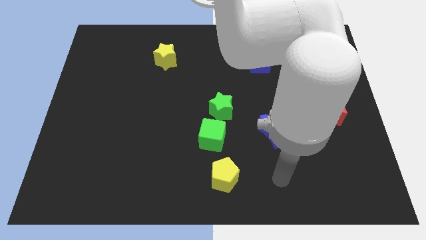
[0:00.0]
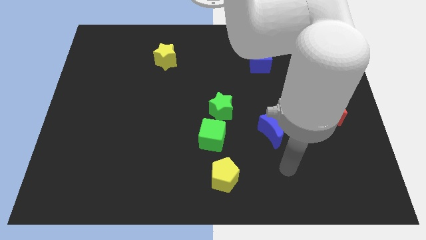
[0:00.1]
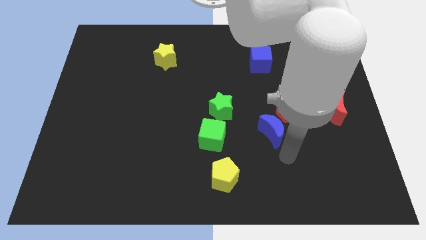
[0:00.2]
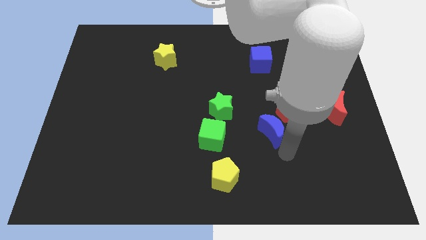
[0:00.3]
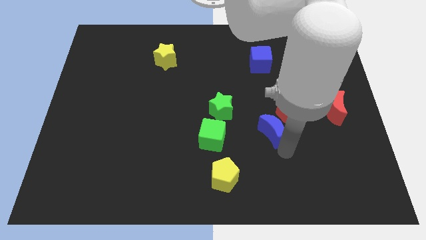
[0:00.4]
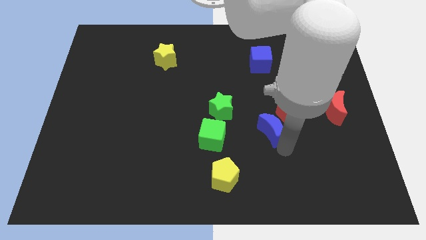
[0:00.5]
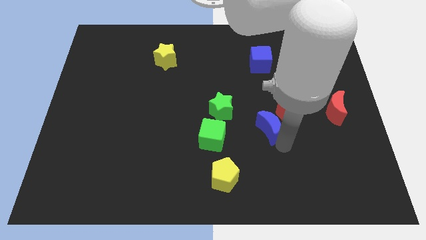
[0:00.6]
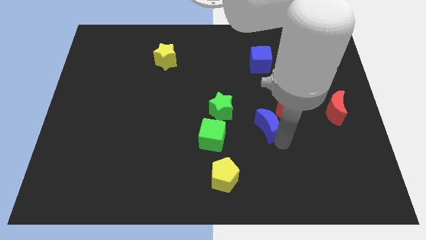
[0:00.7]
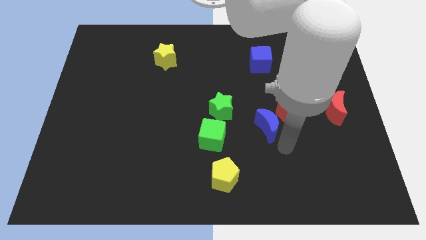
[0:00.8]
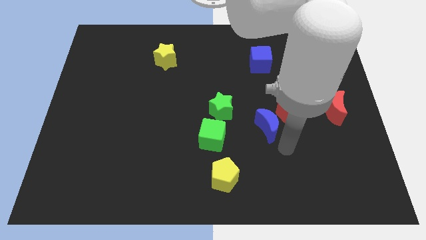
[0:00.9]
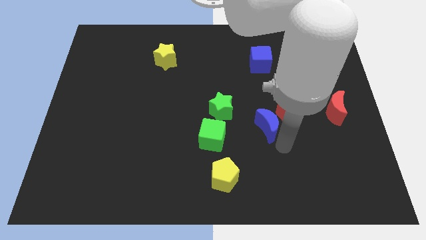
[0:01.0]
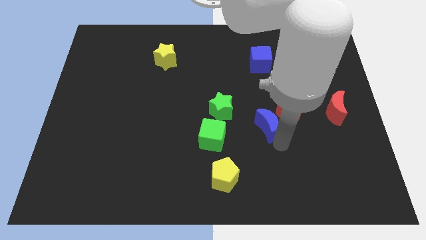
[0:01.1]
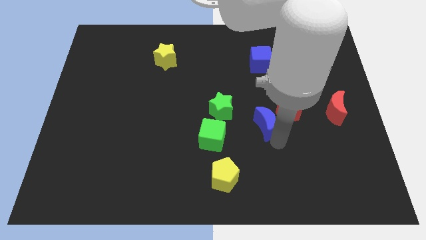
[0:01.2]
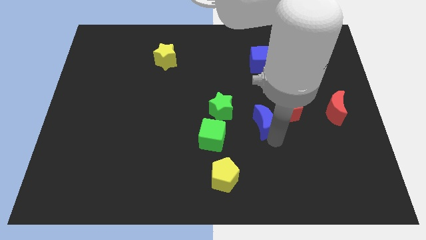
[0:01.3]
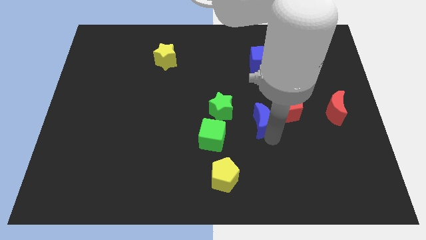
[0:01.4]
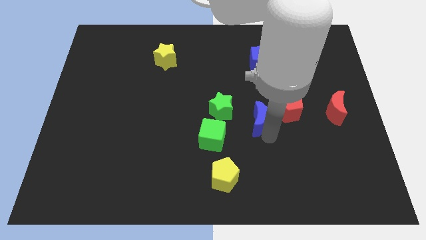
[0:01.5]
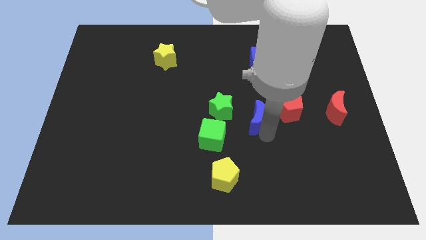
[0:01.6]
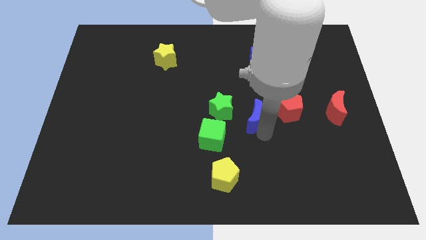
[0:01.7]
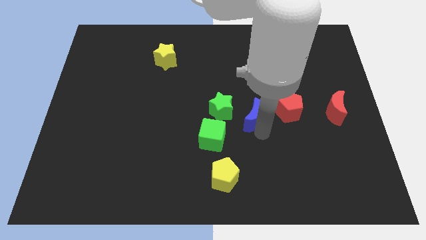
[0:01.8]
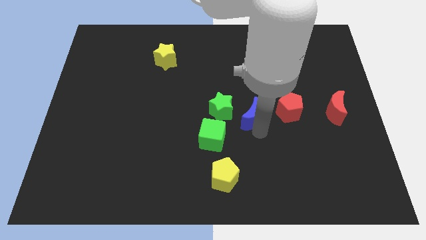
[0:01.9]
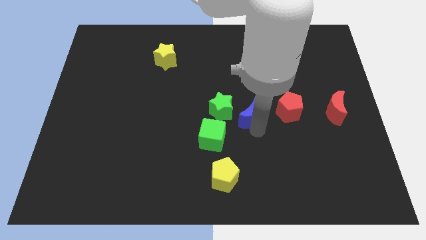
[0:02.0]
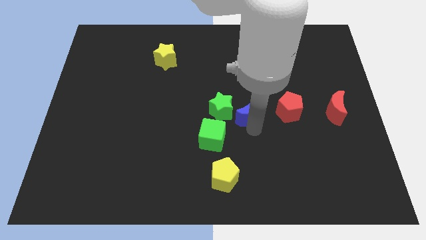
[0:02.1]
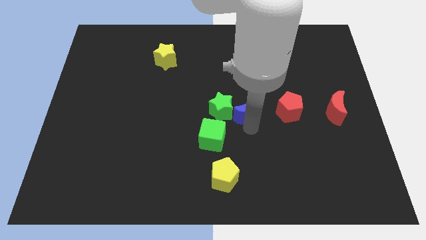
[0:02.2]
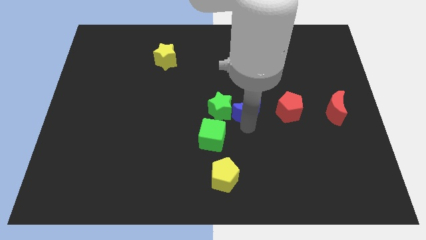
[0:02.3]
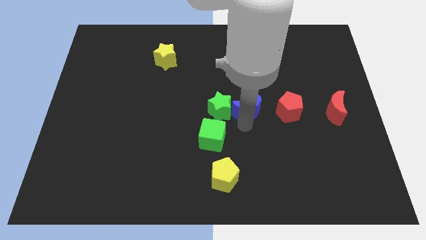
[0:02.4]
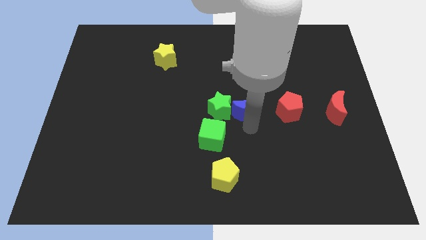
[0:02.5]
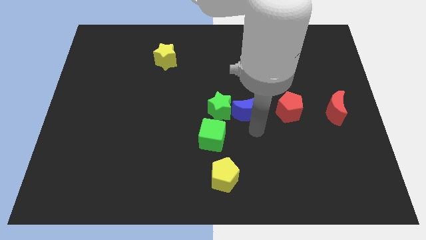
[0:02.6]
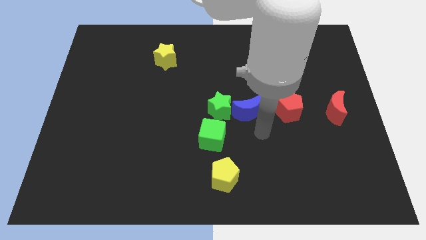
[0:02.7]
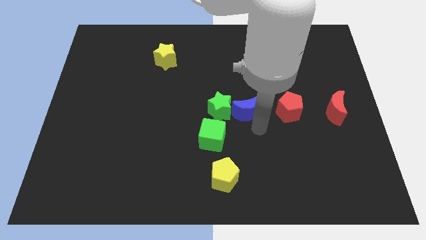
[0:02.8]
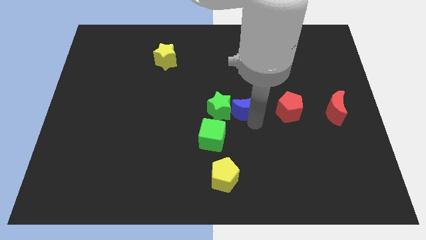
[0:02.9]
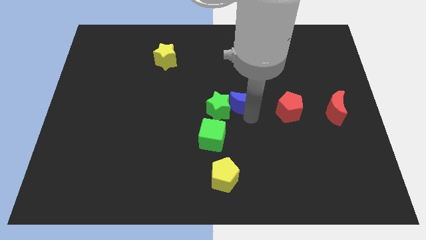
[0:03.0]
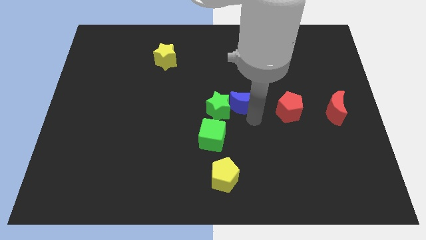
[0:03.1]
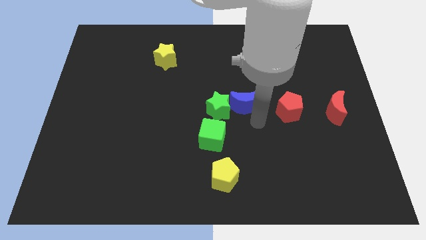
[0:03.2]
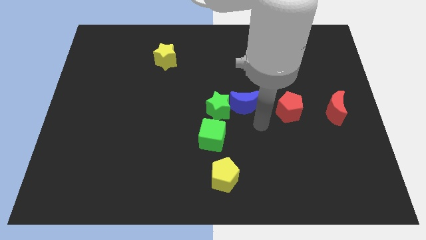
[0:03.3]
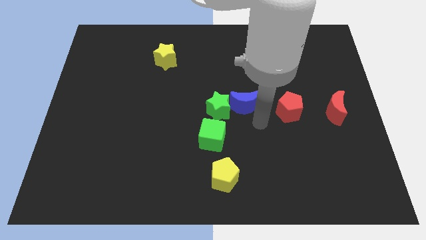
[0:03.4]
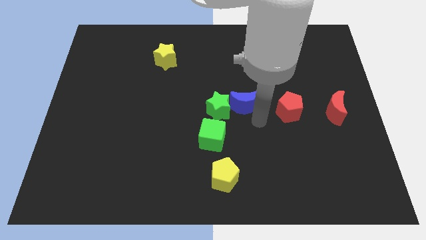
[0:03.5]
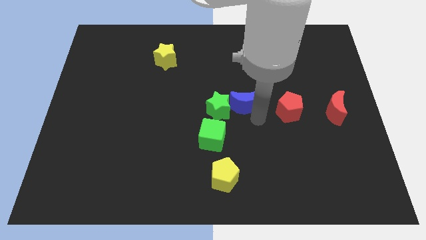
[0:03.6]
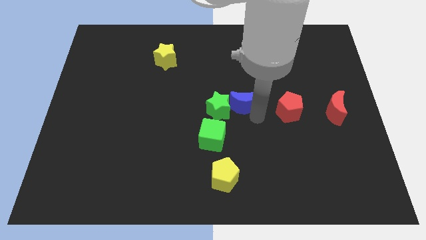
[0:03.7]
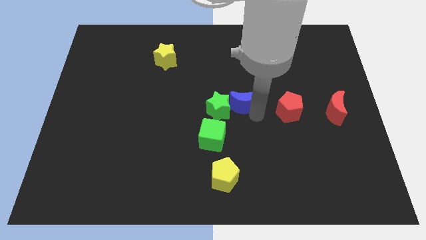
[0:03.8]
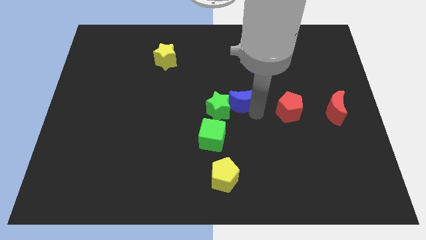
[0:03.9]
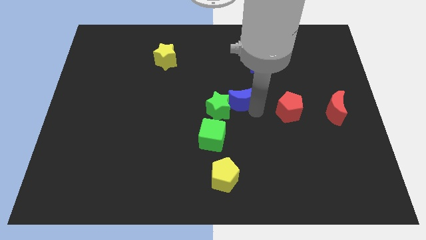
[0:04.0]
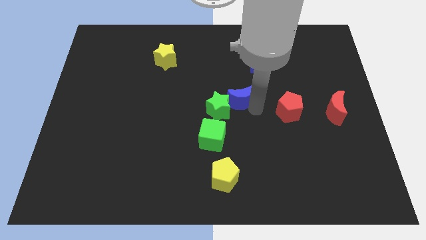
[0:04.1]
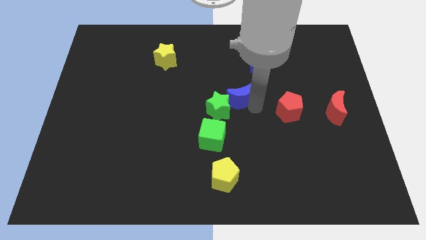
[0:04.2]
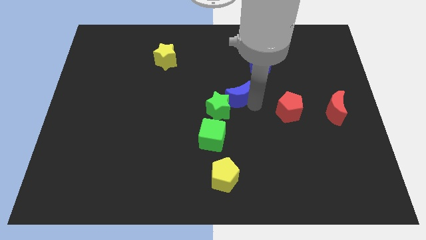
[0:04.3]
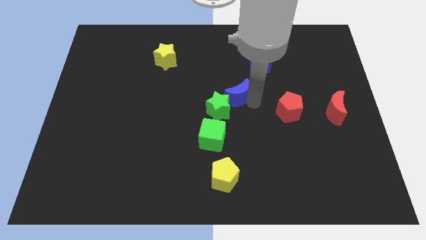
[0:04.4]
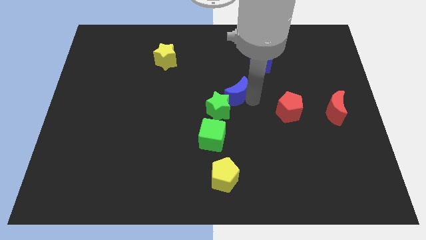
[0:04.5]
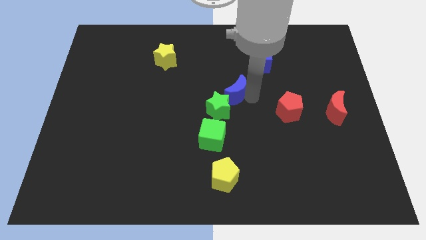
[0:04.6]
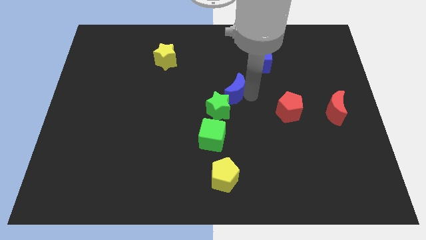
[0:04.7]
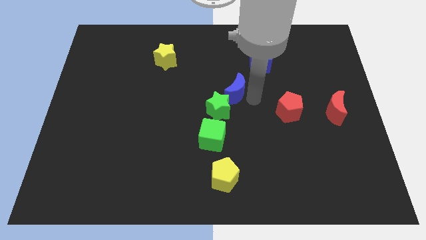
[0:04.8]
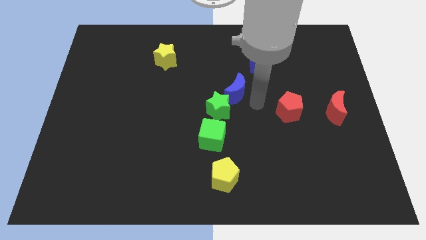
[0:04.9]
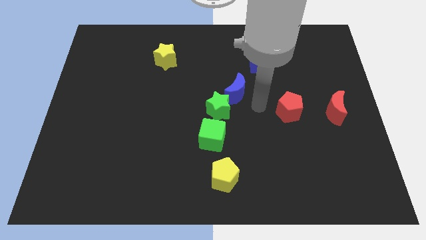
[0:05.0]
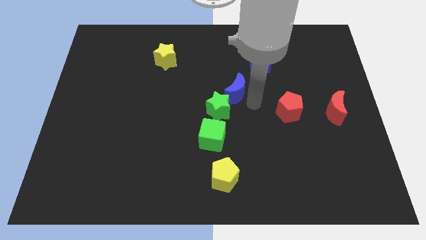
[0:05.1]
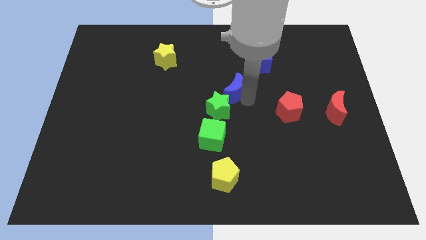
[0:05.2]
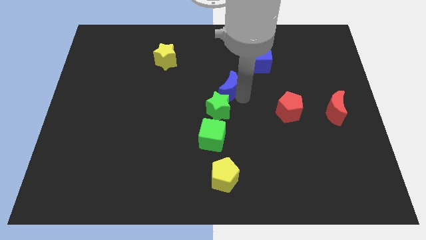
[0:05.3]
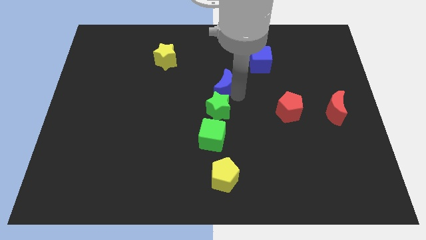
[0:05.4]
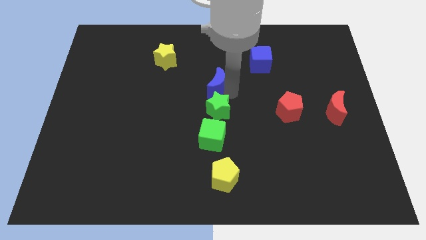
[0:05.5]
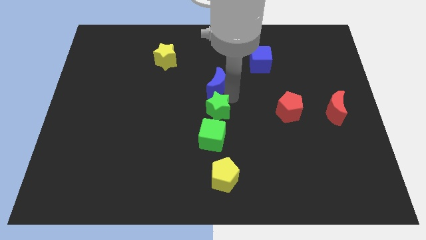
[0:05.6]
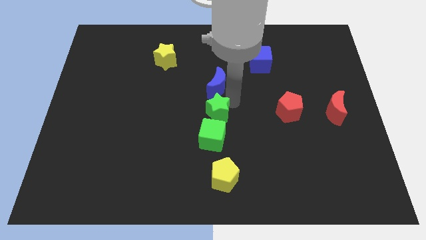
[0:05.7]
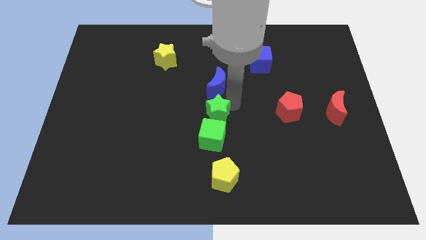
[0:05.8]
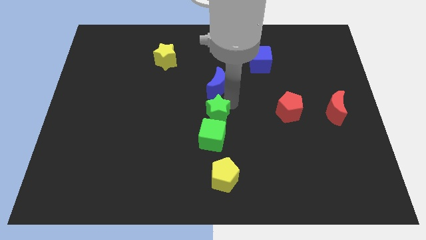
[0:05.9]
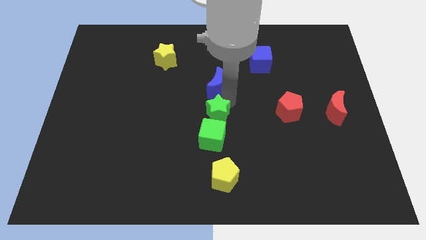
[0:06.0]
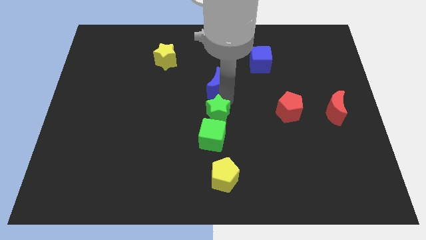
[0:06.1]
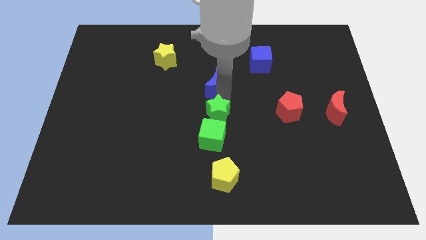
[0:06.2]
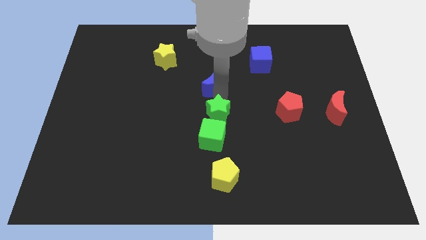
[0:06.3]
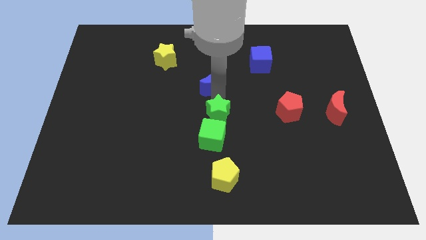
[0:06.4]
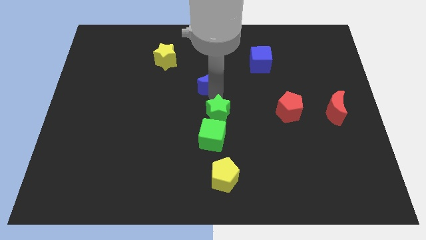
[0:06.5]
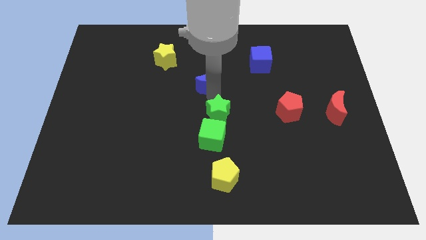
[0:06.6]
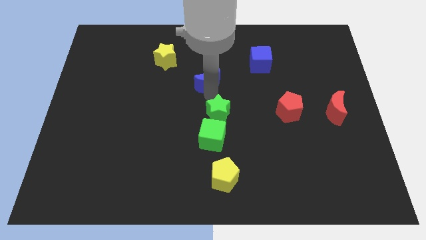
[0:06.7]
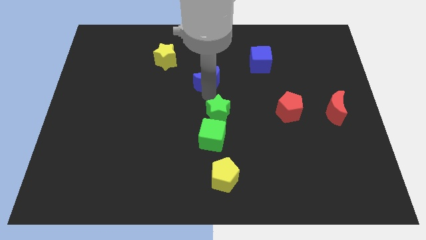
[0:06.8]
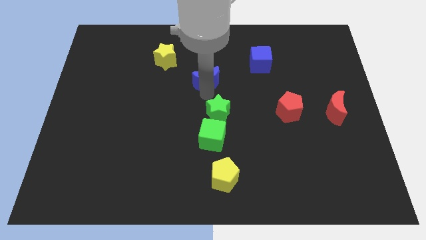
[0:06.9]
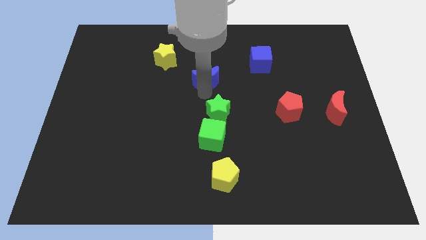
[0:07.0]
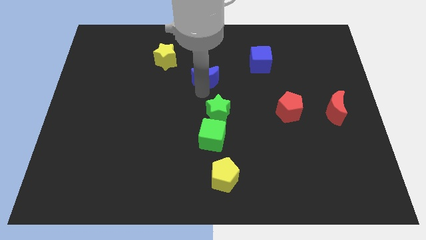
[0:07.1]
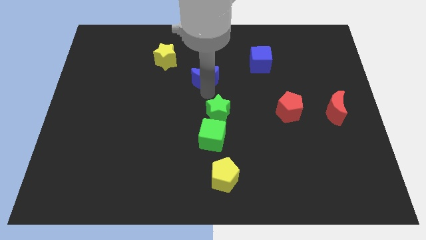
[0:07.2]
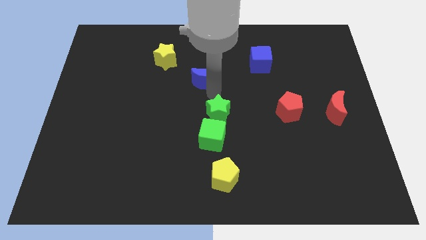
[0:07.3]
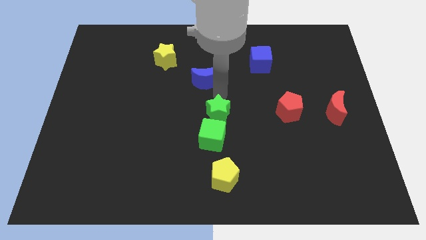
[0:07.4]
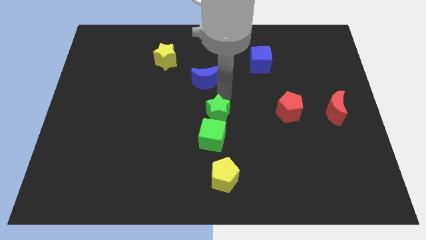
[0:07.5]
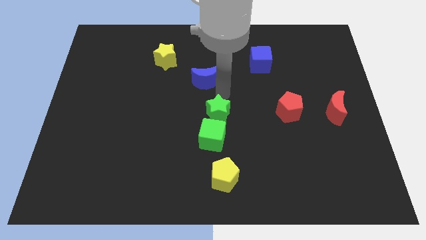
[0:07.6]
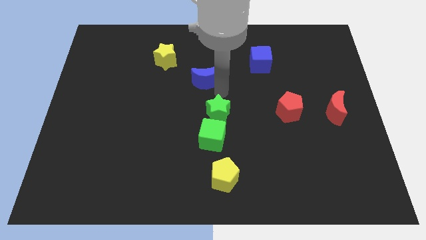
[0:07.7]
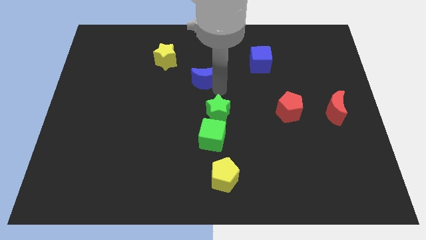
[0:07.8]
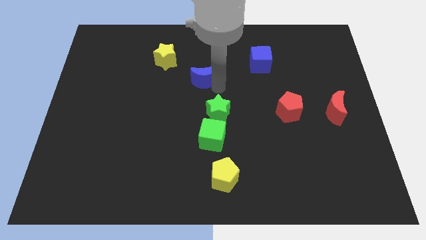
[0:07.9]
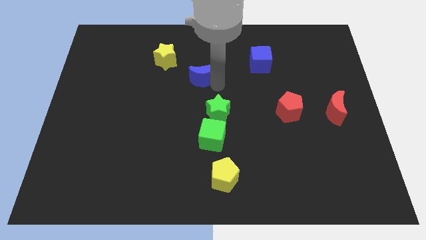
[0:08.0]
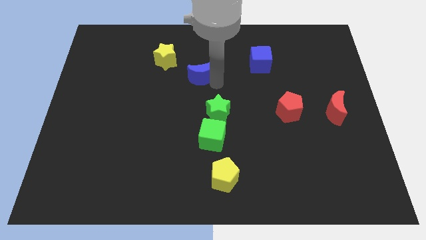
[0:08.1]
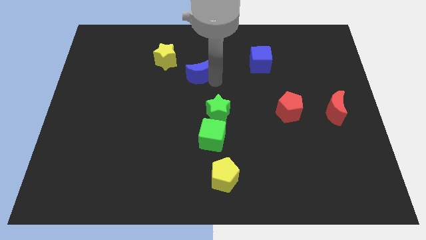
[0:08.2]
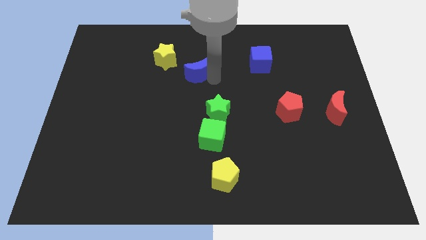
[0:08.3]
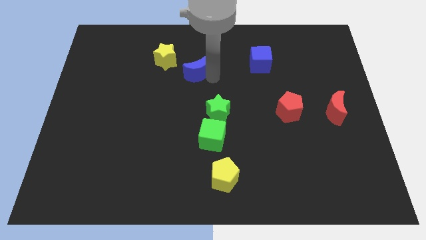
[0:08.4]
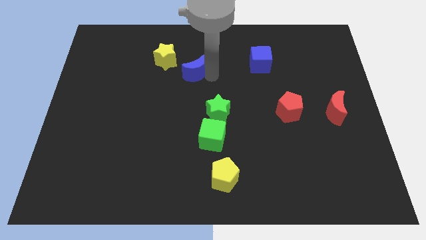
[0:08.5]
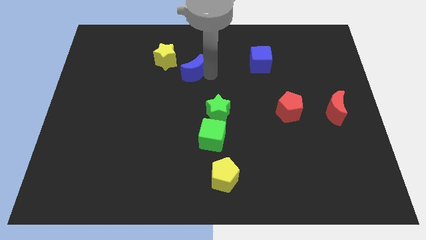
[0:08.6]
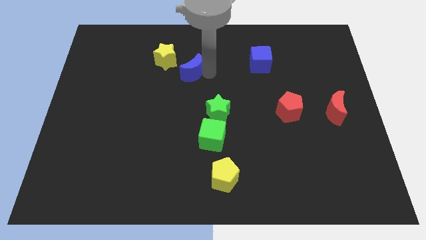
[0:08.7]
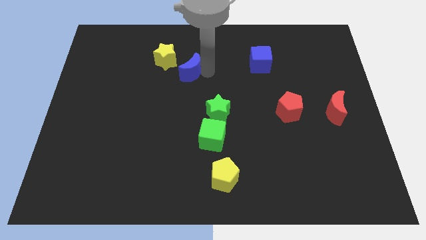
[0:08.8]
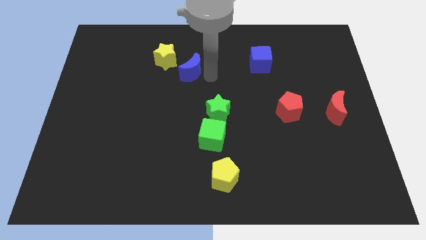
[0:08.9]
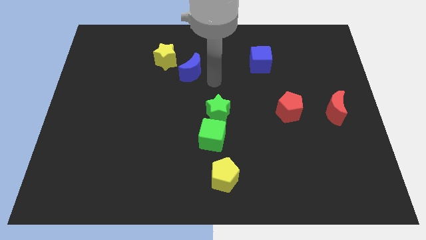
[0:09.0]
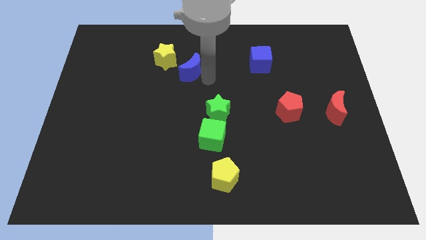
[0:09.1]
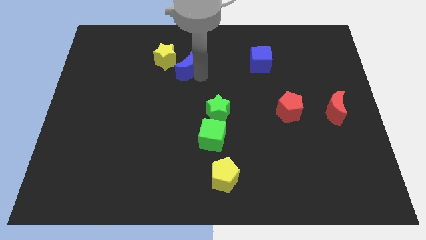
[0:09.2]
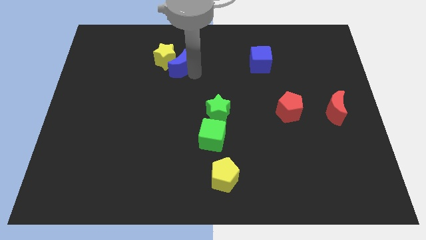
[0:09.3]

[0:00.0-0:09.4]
put the blue moon to the yellow star
